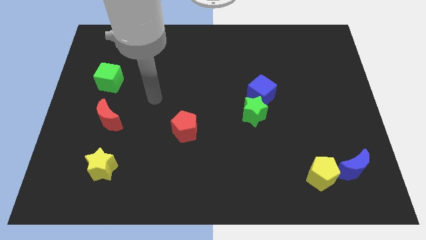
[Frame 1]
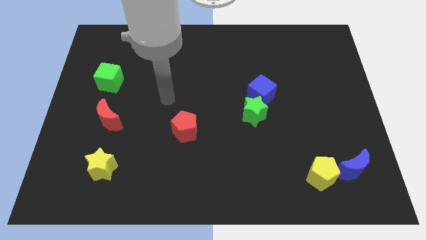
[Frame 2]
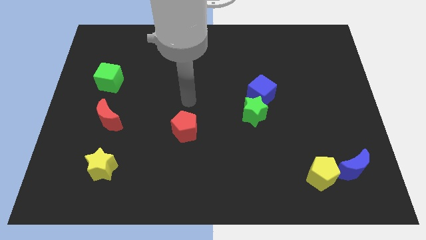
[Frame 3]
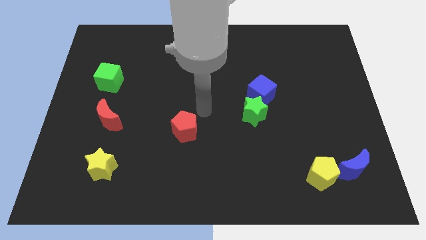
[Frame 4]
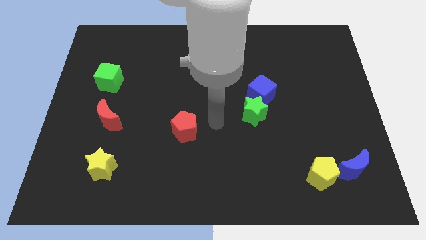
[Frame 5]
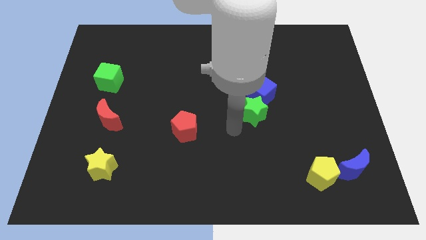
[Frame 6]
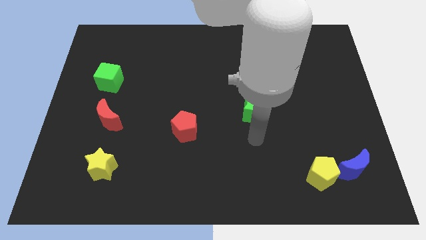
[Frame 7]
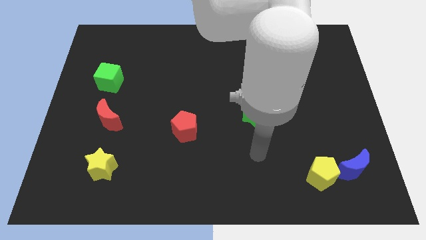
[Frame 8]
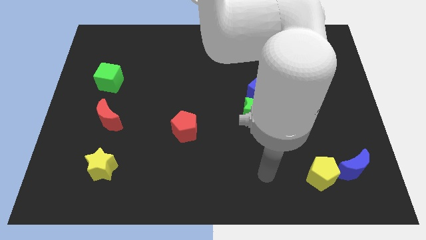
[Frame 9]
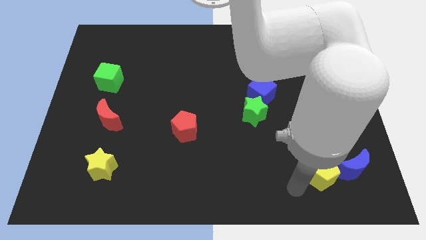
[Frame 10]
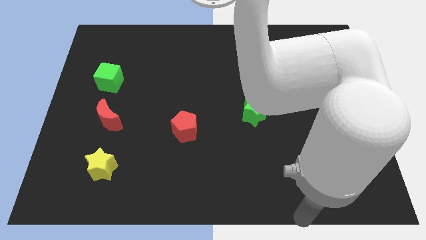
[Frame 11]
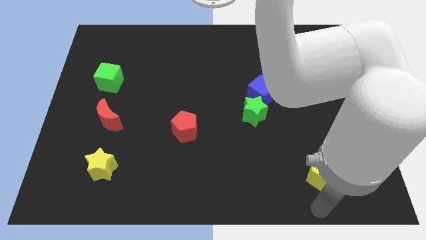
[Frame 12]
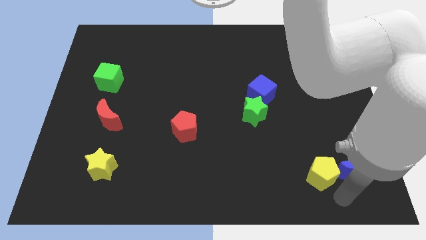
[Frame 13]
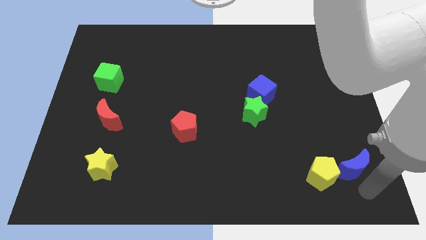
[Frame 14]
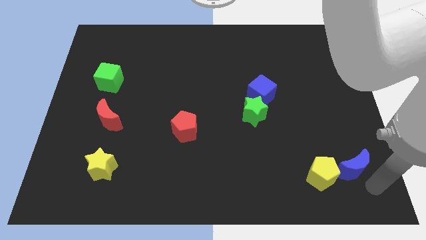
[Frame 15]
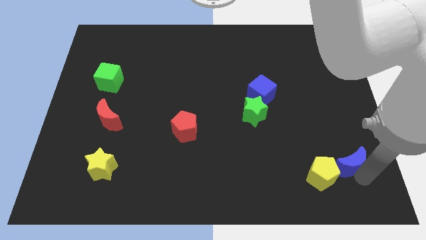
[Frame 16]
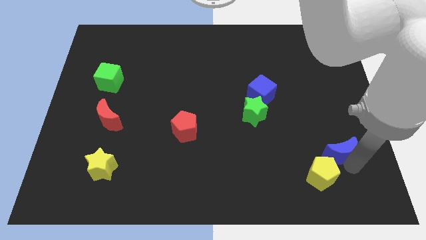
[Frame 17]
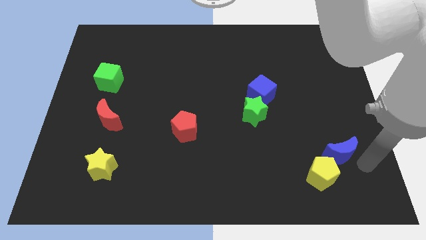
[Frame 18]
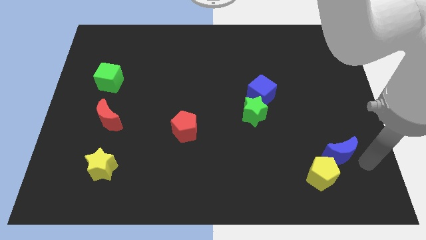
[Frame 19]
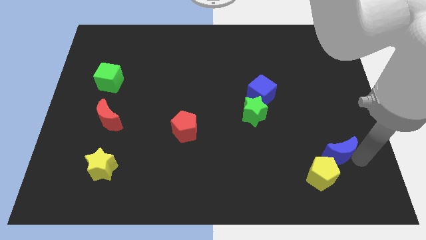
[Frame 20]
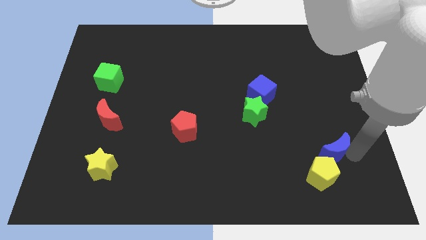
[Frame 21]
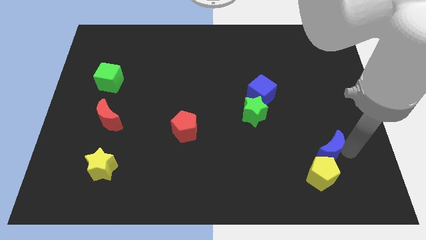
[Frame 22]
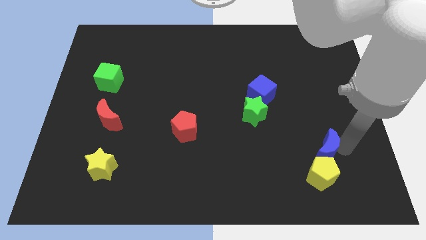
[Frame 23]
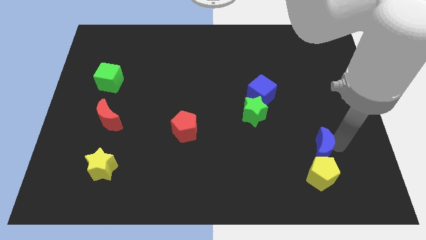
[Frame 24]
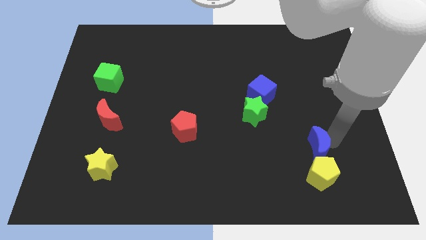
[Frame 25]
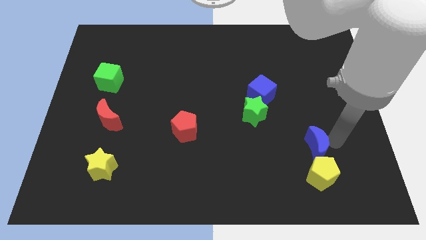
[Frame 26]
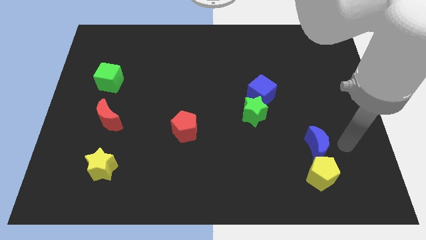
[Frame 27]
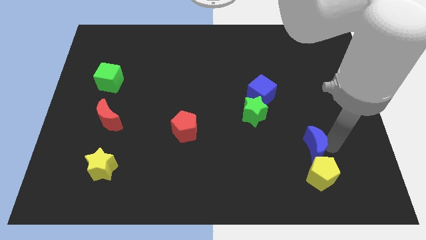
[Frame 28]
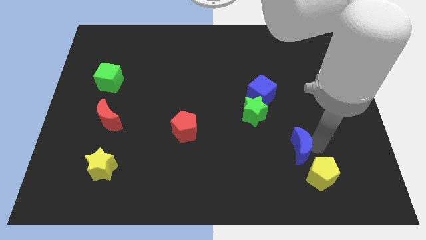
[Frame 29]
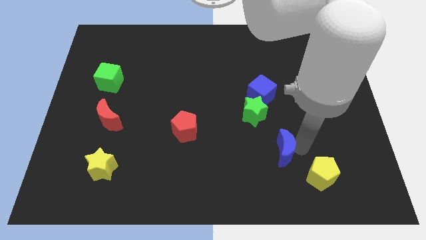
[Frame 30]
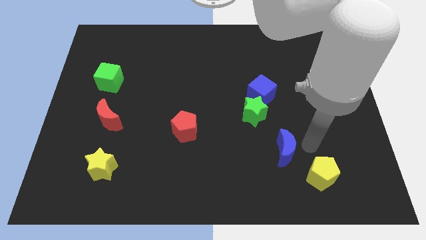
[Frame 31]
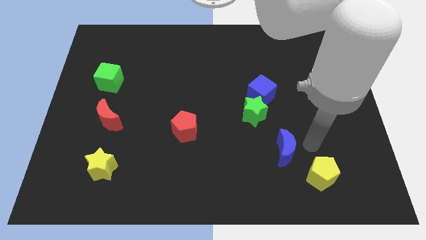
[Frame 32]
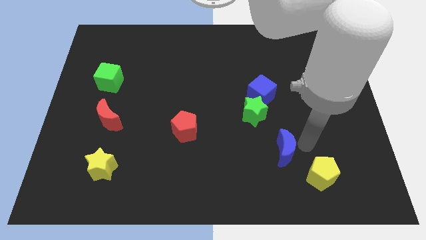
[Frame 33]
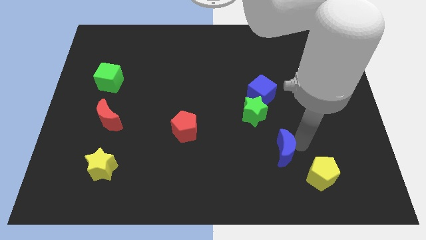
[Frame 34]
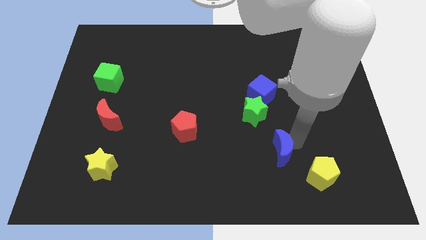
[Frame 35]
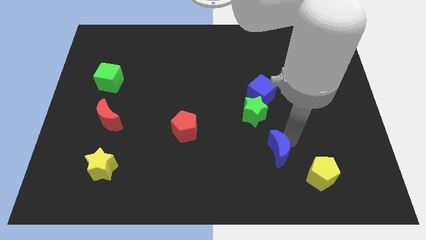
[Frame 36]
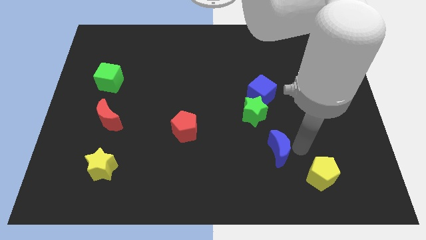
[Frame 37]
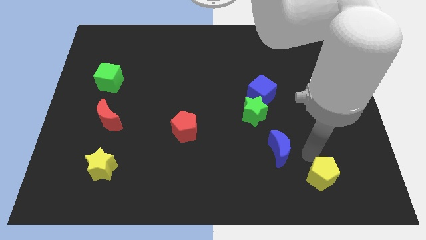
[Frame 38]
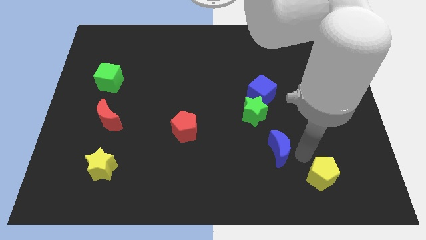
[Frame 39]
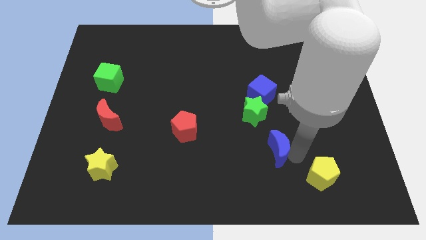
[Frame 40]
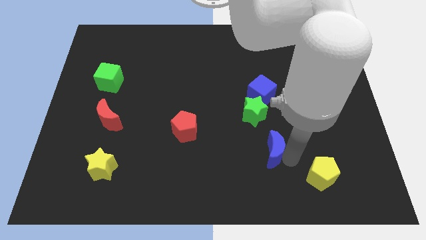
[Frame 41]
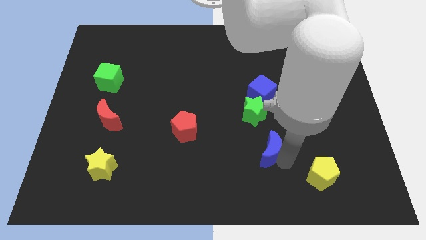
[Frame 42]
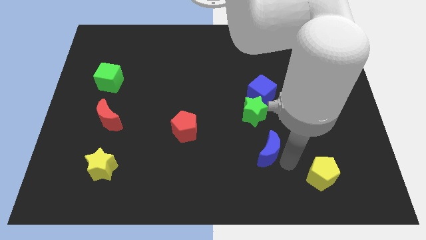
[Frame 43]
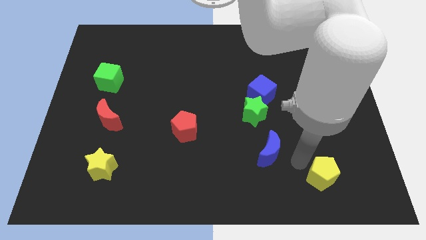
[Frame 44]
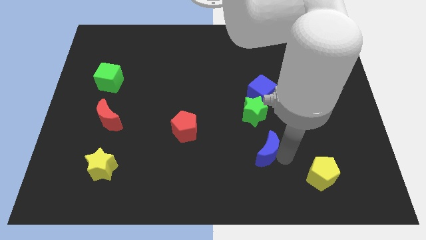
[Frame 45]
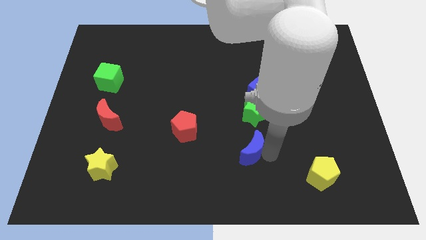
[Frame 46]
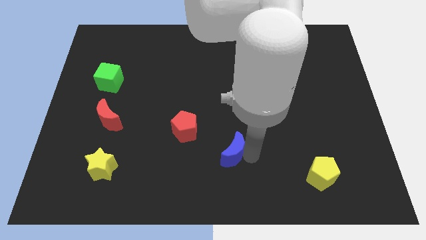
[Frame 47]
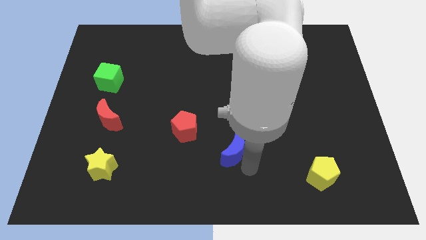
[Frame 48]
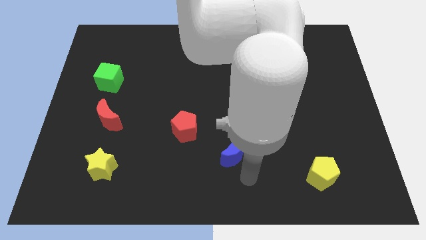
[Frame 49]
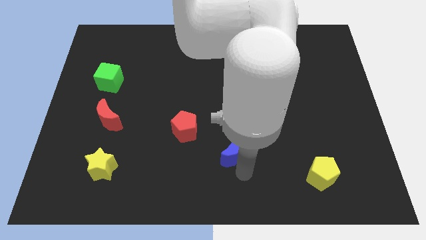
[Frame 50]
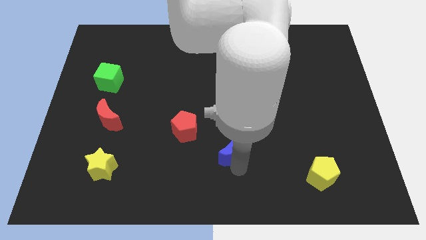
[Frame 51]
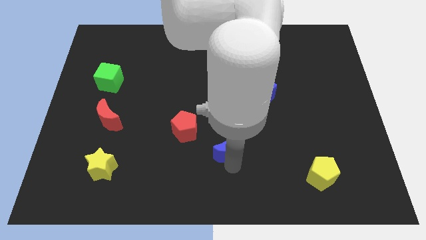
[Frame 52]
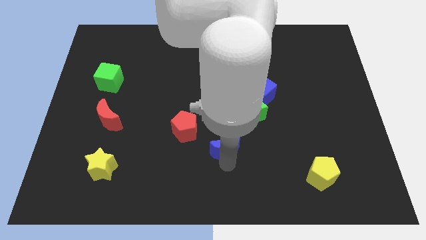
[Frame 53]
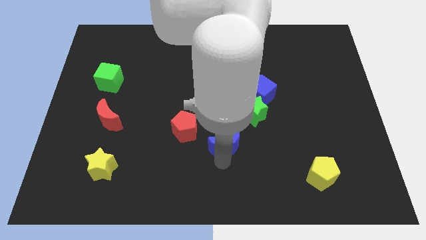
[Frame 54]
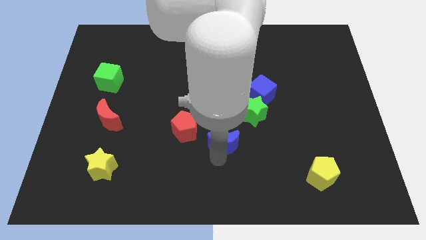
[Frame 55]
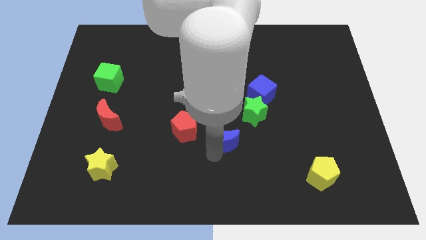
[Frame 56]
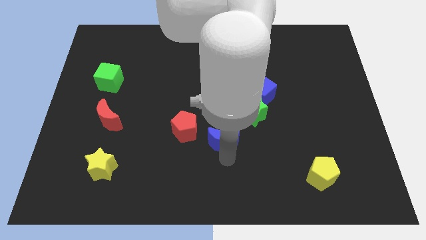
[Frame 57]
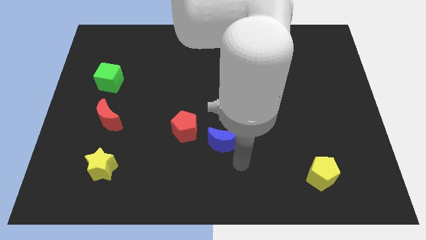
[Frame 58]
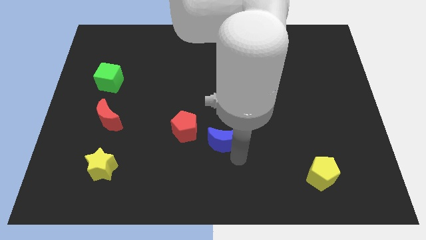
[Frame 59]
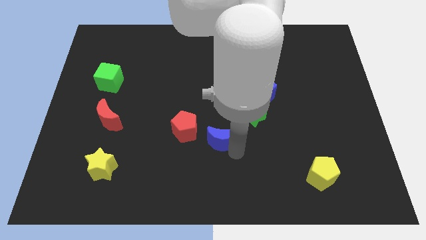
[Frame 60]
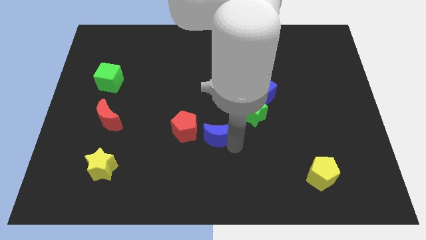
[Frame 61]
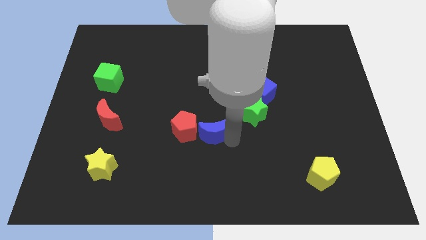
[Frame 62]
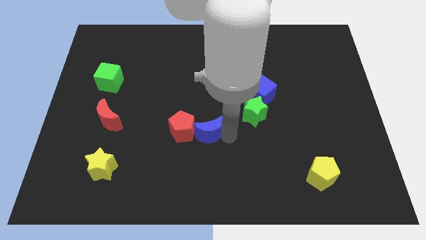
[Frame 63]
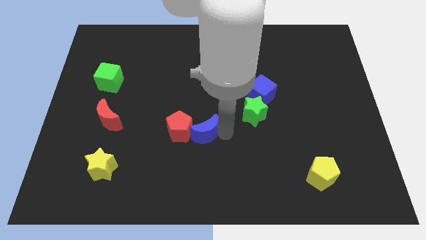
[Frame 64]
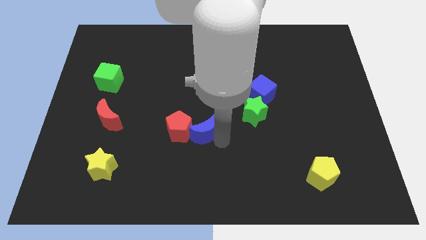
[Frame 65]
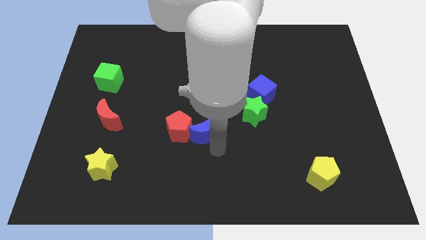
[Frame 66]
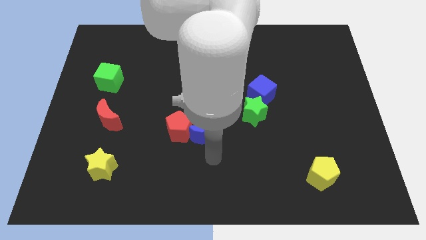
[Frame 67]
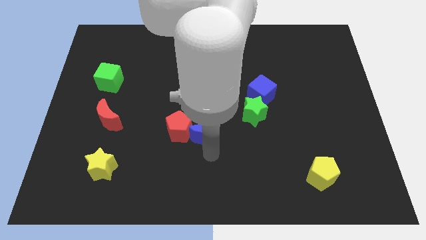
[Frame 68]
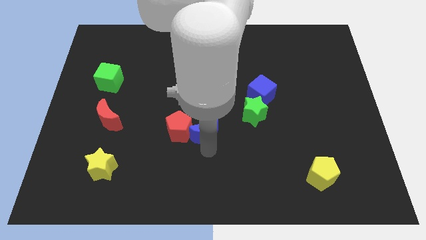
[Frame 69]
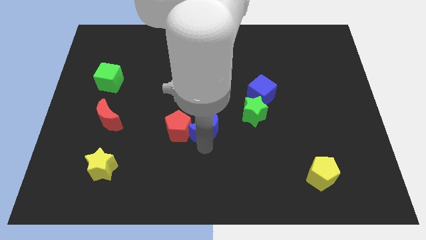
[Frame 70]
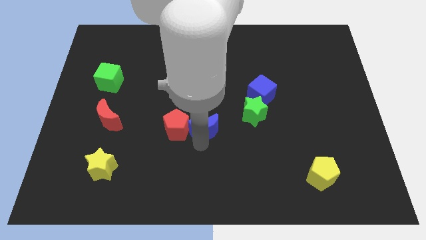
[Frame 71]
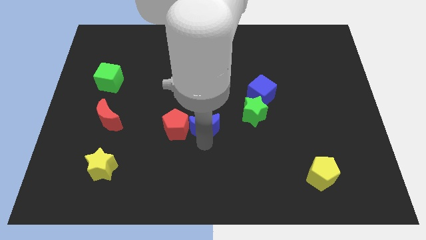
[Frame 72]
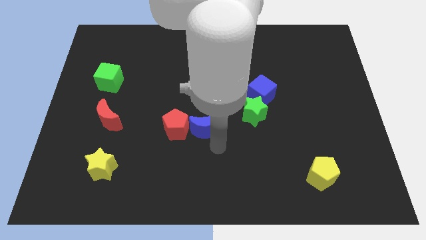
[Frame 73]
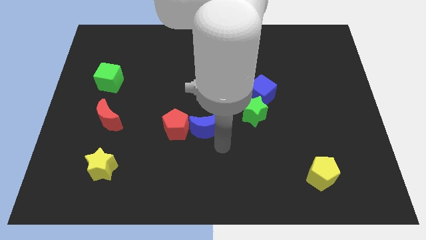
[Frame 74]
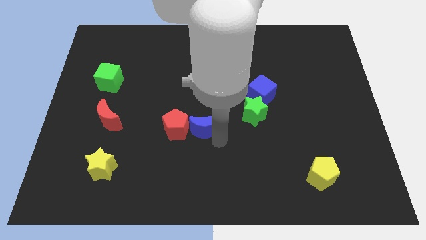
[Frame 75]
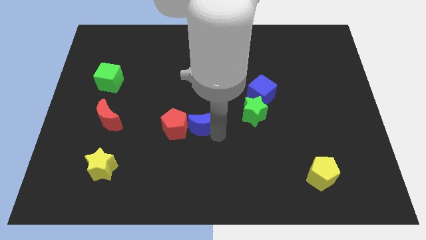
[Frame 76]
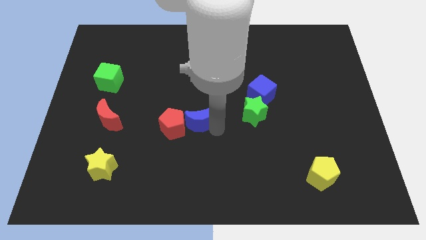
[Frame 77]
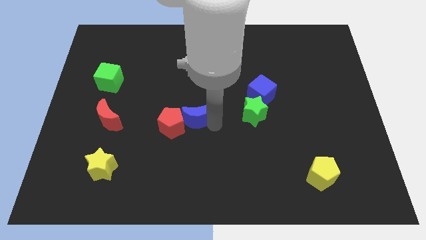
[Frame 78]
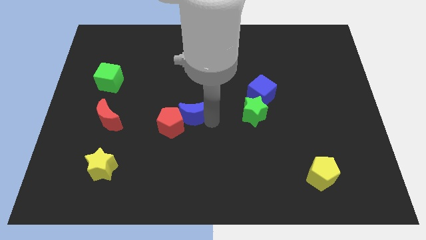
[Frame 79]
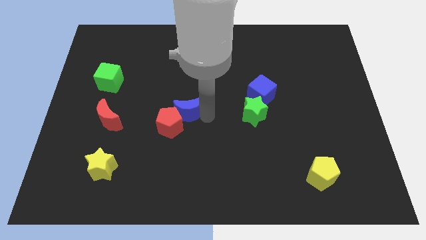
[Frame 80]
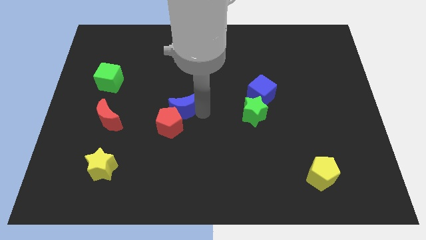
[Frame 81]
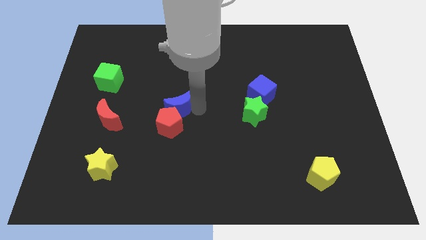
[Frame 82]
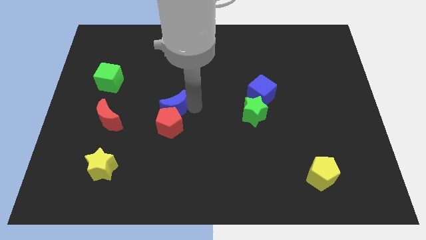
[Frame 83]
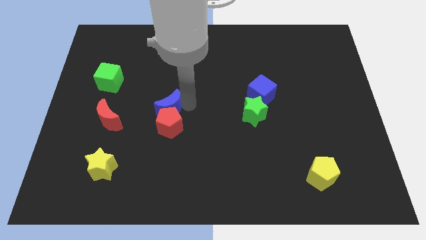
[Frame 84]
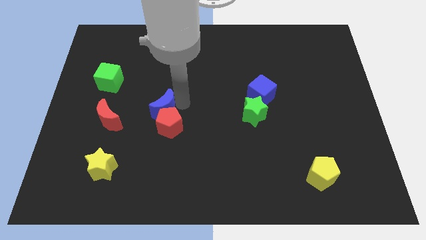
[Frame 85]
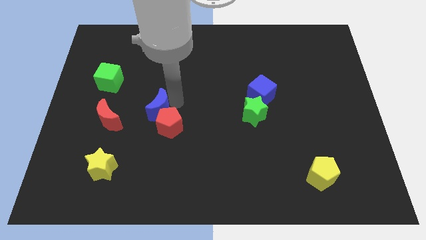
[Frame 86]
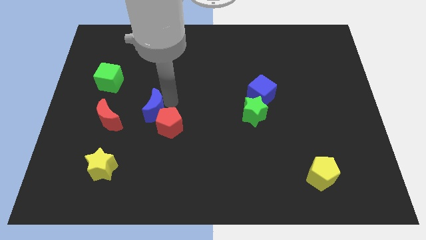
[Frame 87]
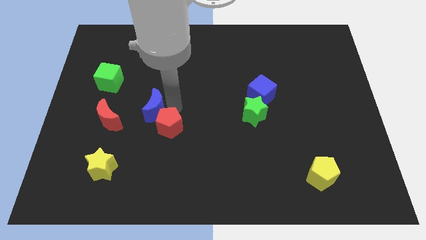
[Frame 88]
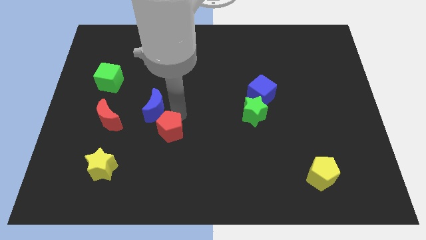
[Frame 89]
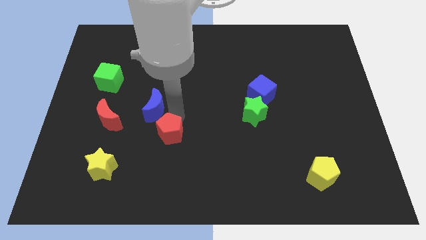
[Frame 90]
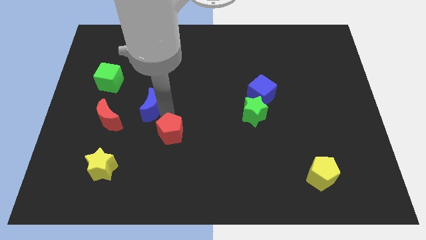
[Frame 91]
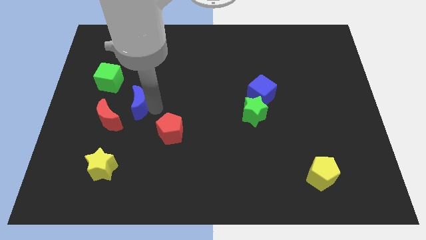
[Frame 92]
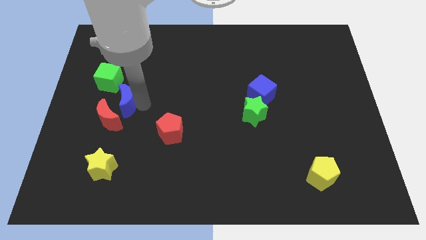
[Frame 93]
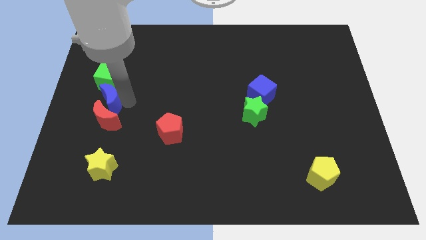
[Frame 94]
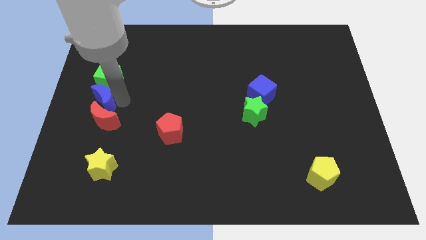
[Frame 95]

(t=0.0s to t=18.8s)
slide the blue moon to the center left
